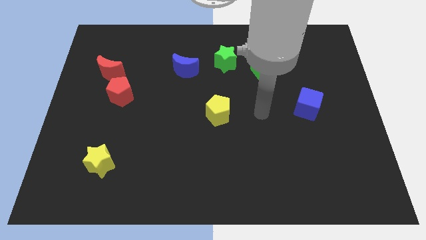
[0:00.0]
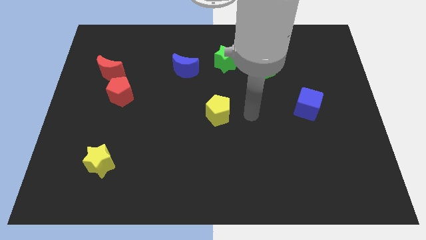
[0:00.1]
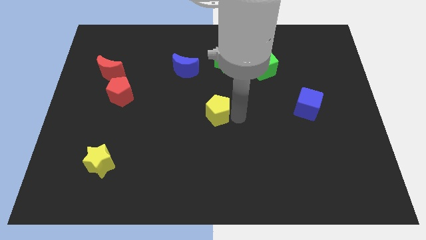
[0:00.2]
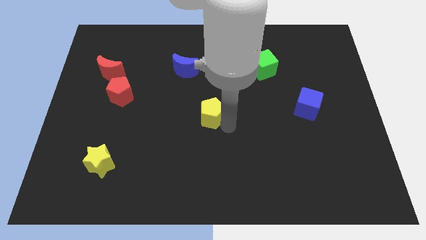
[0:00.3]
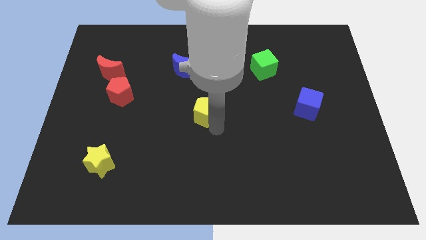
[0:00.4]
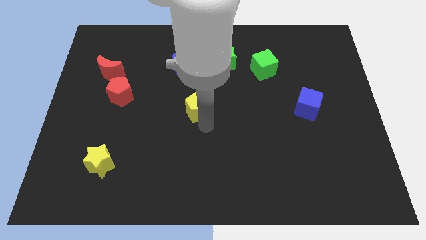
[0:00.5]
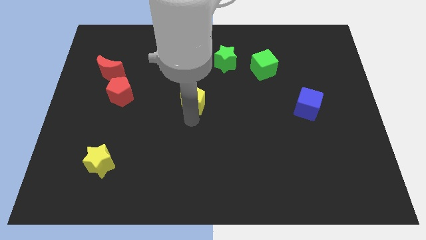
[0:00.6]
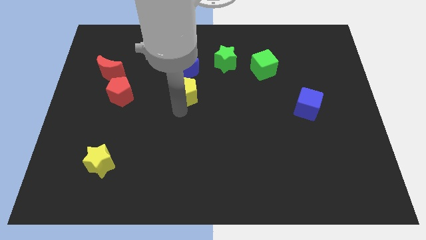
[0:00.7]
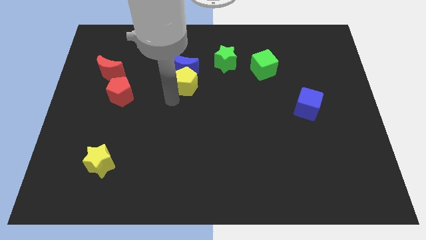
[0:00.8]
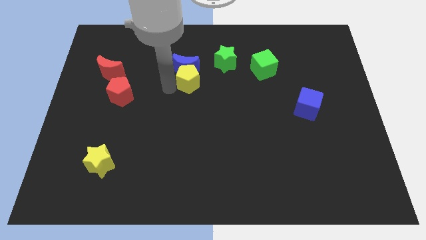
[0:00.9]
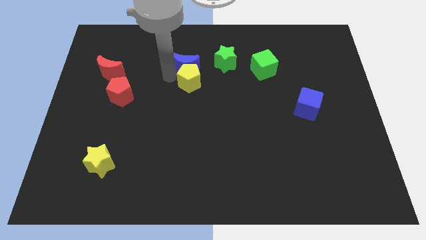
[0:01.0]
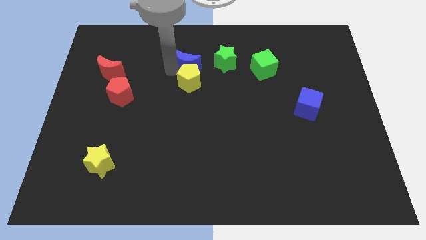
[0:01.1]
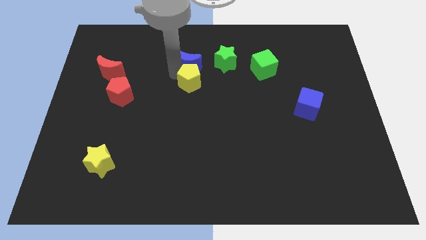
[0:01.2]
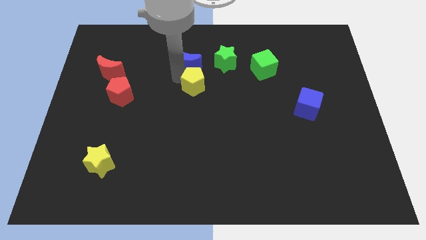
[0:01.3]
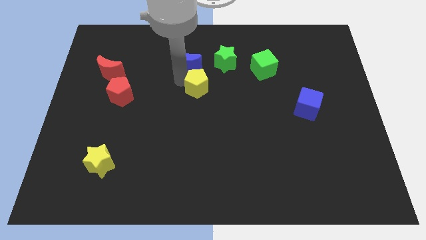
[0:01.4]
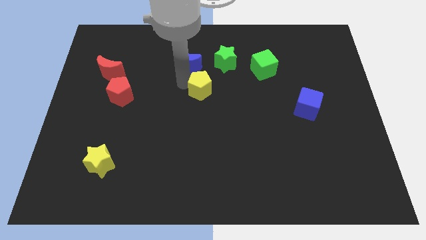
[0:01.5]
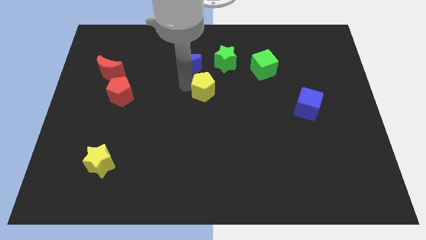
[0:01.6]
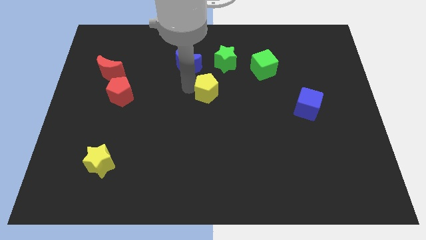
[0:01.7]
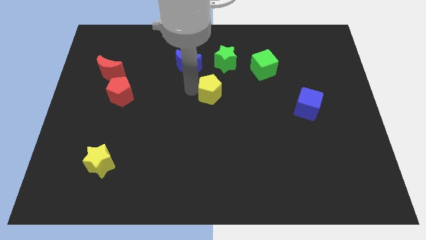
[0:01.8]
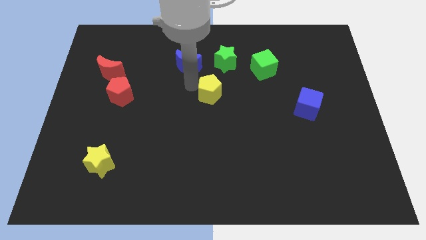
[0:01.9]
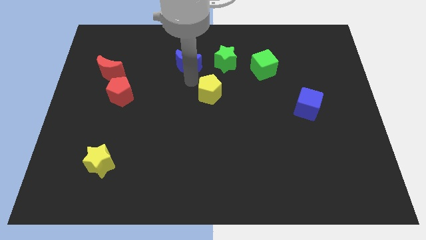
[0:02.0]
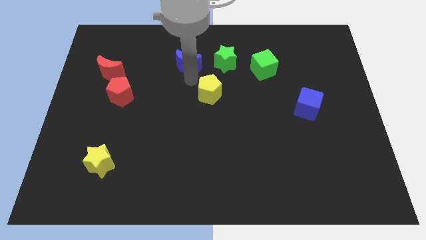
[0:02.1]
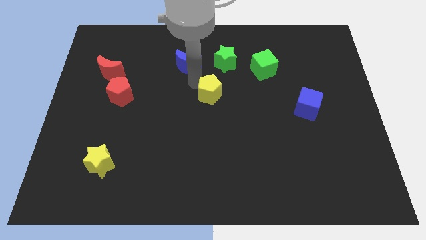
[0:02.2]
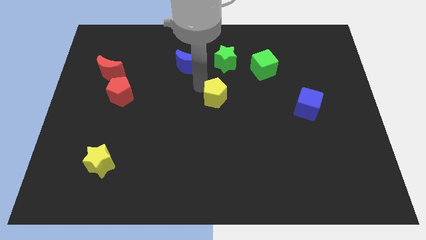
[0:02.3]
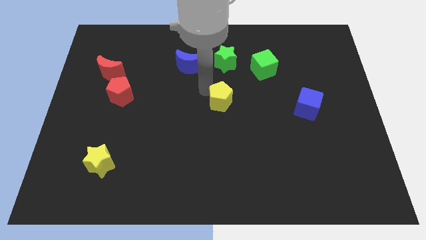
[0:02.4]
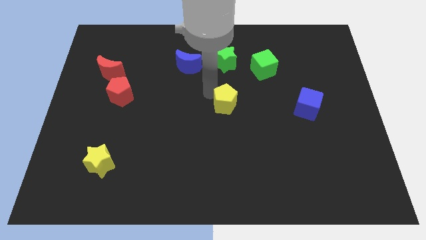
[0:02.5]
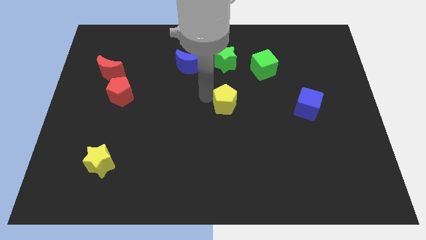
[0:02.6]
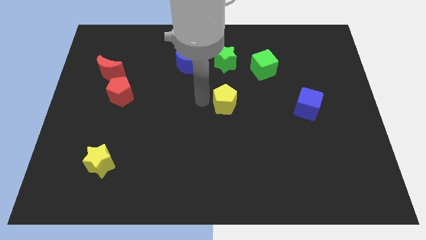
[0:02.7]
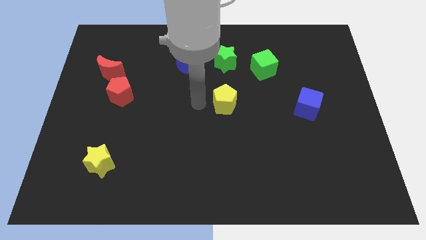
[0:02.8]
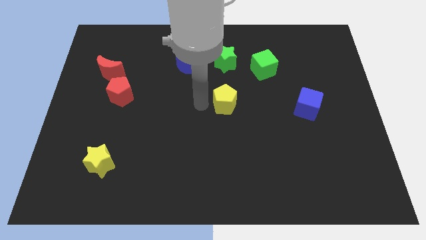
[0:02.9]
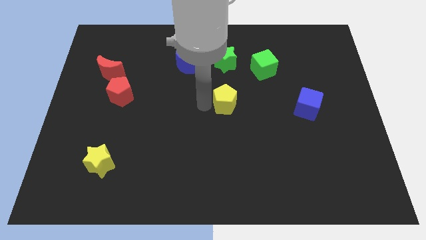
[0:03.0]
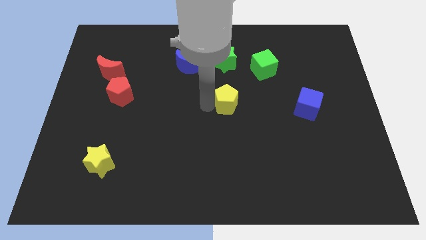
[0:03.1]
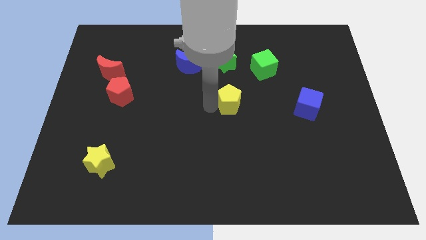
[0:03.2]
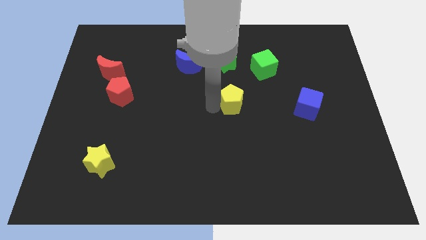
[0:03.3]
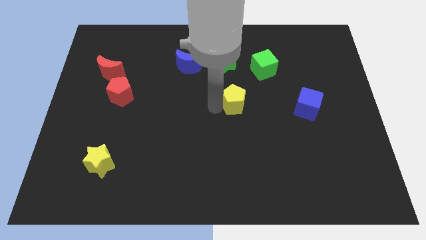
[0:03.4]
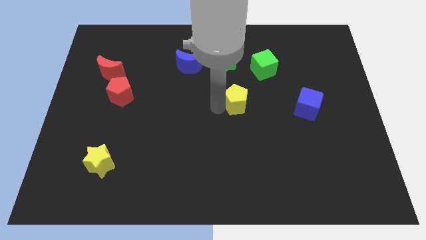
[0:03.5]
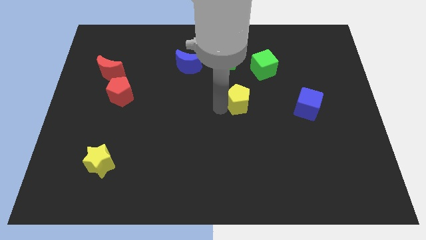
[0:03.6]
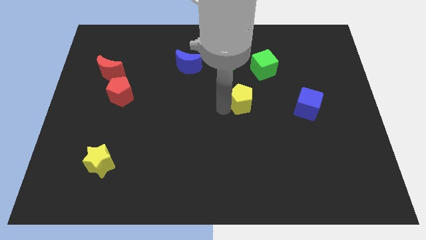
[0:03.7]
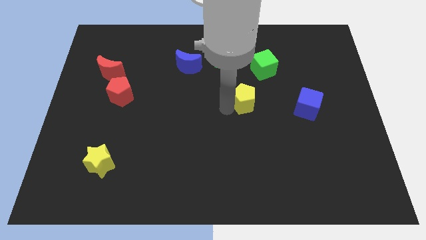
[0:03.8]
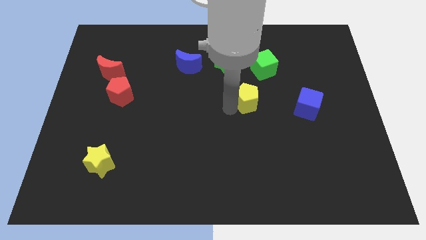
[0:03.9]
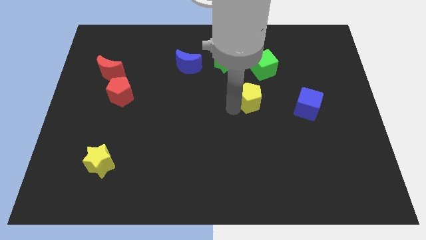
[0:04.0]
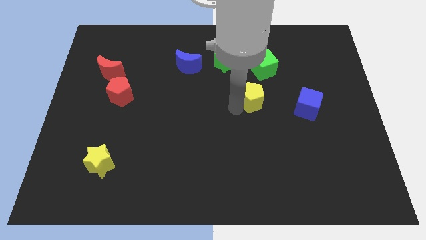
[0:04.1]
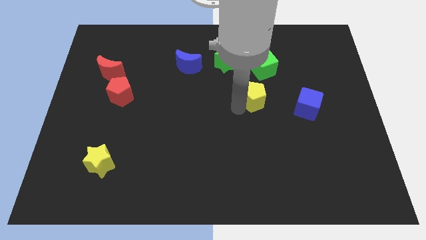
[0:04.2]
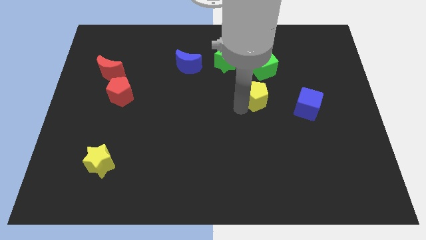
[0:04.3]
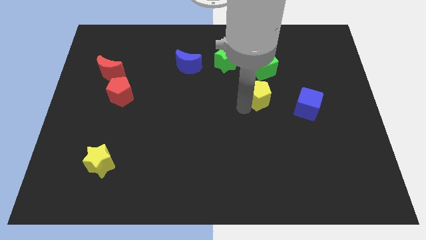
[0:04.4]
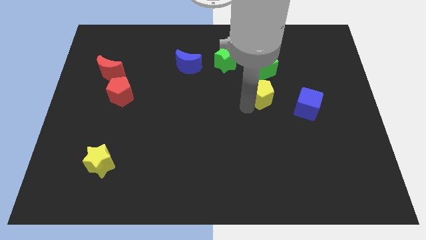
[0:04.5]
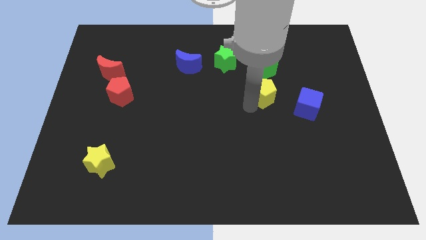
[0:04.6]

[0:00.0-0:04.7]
slide the yellow pentagon diagonally up and to the left of the blue cube

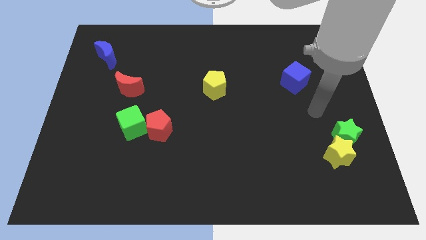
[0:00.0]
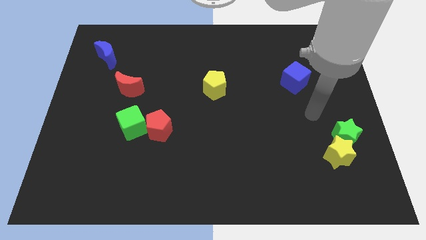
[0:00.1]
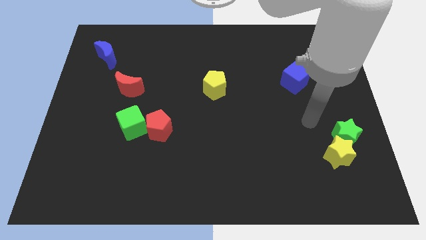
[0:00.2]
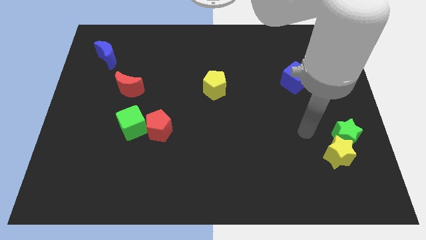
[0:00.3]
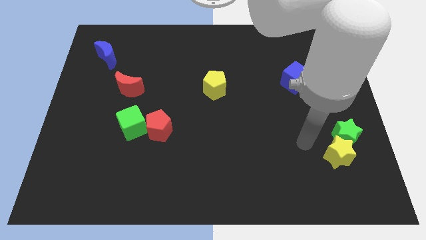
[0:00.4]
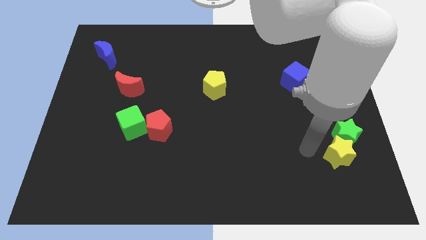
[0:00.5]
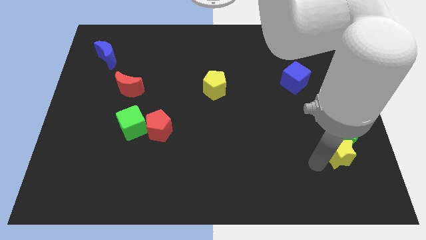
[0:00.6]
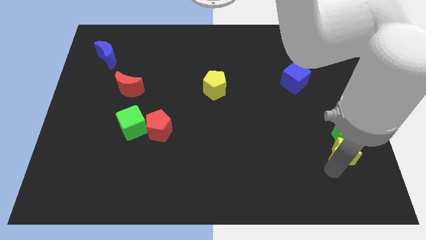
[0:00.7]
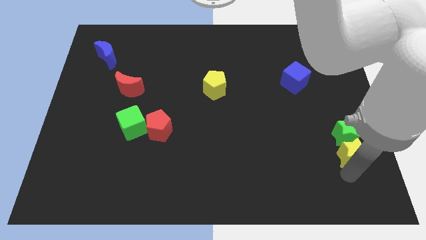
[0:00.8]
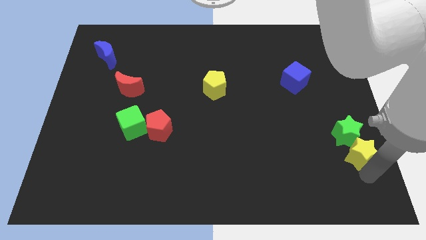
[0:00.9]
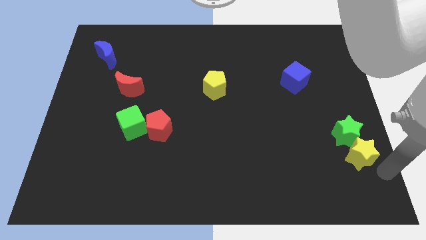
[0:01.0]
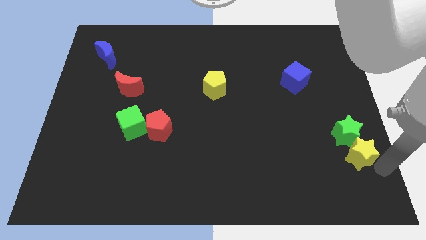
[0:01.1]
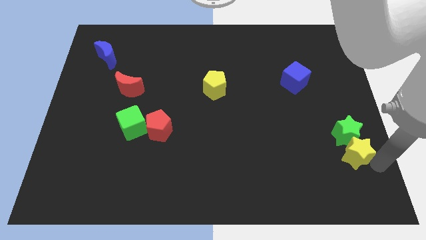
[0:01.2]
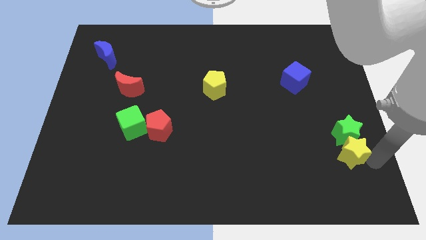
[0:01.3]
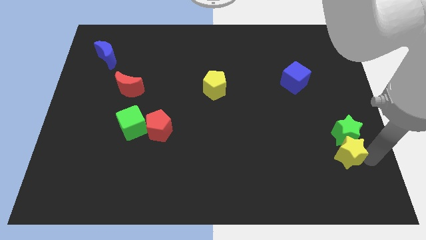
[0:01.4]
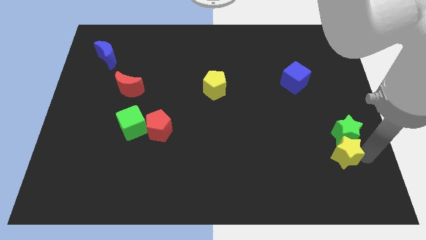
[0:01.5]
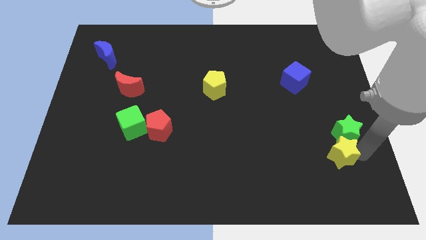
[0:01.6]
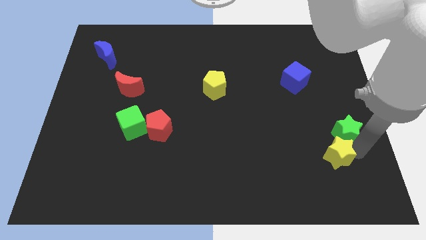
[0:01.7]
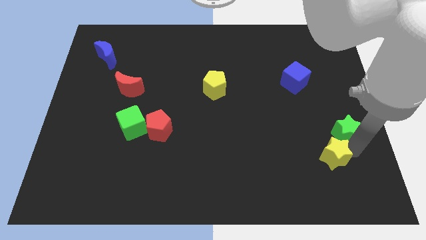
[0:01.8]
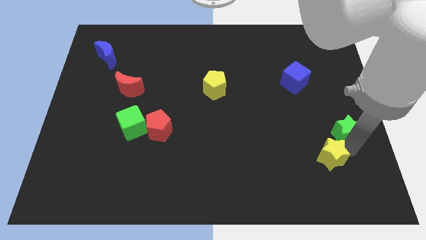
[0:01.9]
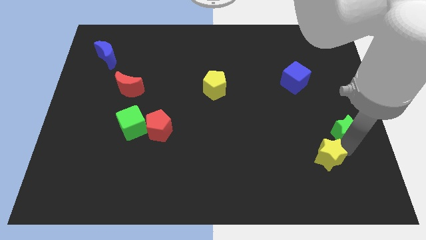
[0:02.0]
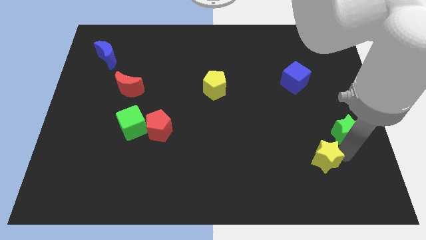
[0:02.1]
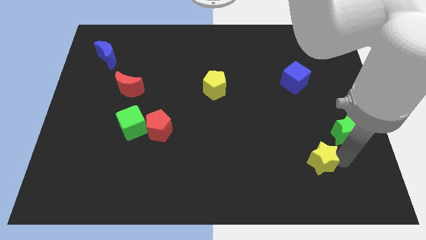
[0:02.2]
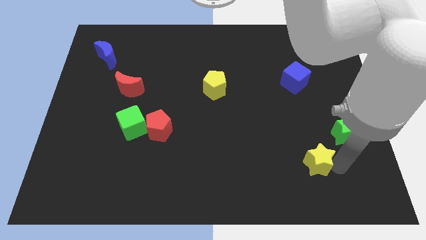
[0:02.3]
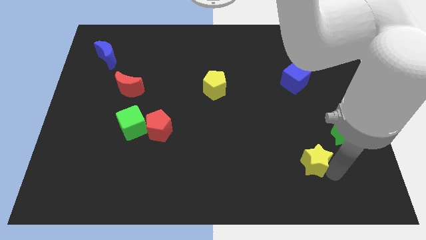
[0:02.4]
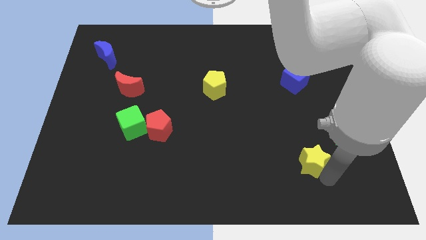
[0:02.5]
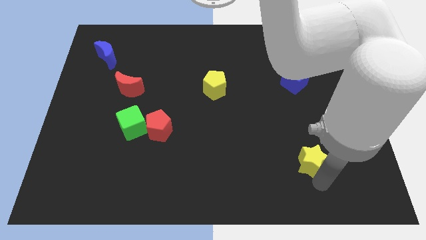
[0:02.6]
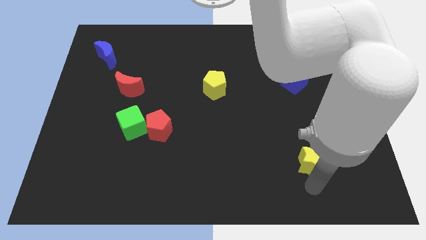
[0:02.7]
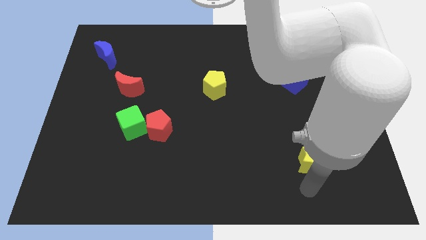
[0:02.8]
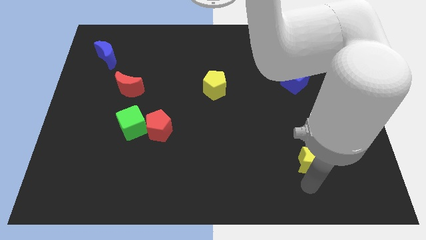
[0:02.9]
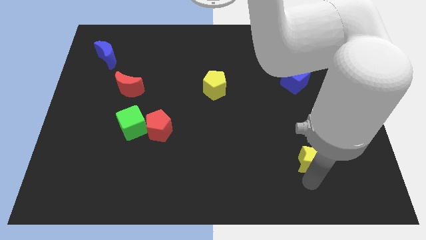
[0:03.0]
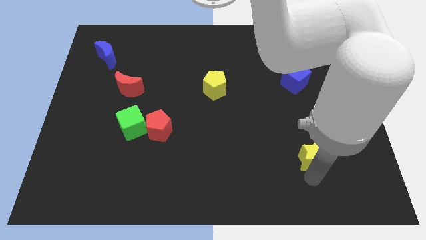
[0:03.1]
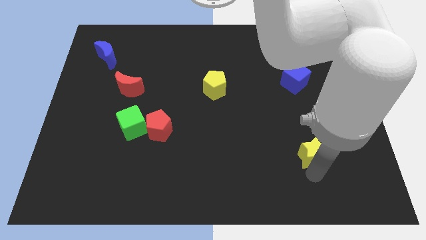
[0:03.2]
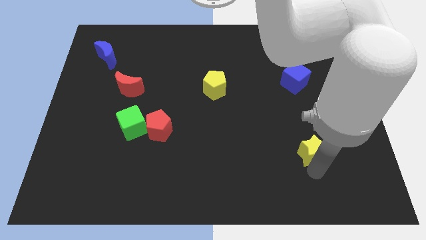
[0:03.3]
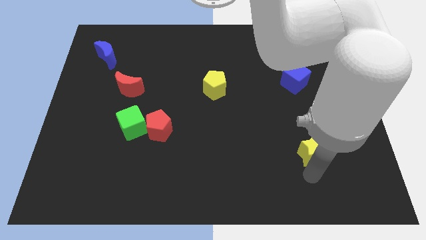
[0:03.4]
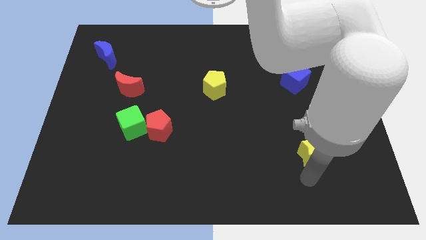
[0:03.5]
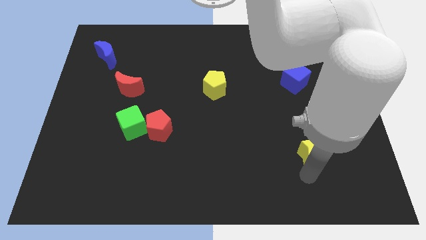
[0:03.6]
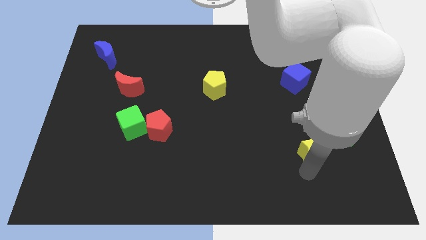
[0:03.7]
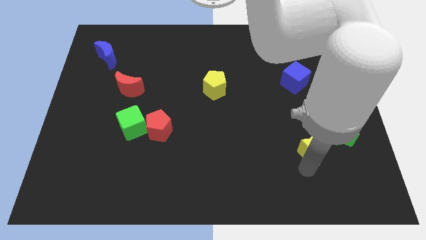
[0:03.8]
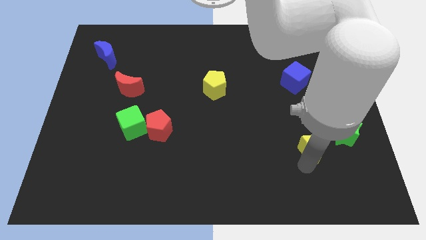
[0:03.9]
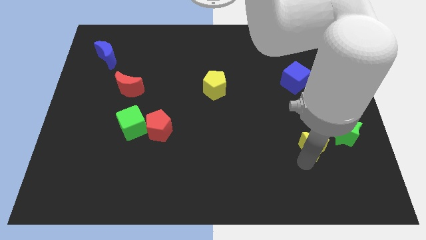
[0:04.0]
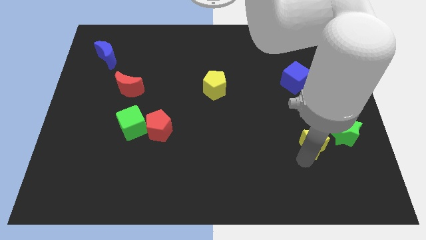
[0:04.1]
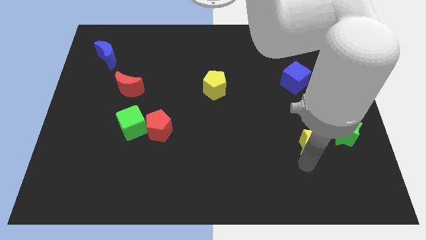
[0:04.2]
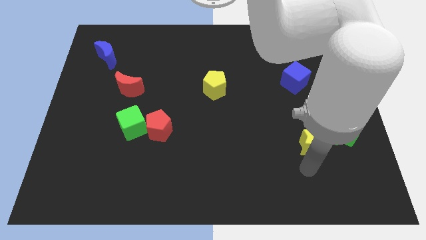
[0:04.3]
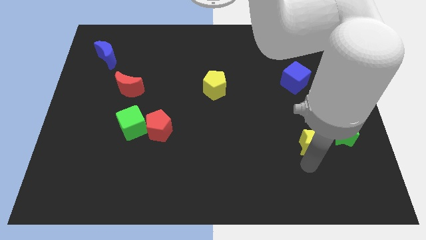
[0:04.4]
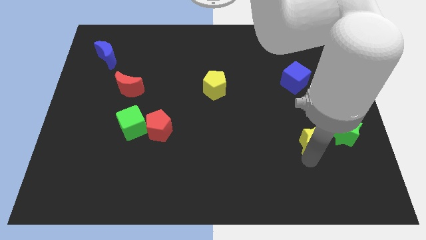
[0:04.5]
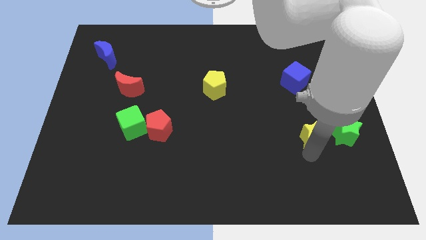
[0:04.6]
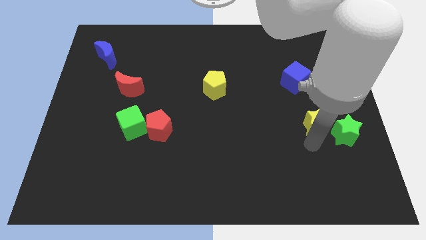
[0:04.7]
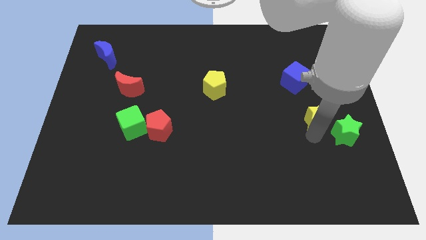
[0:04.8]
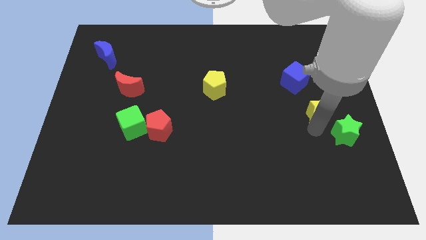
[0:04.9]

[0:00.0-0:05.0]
move the yellow star to the bottom right side of the blue cube
